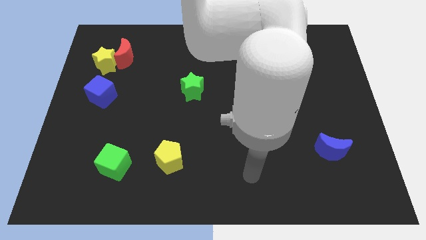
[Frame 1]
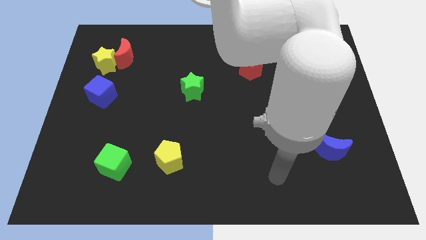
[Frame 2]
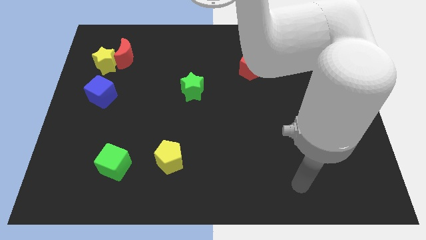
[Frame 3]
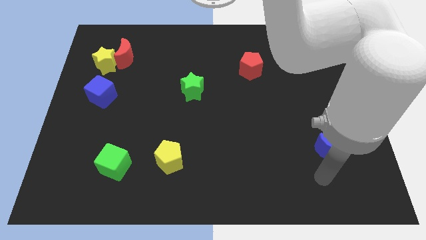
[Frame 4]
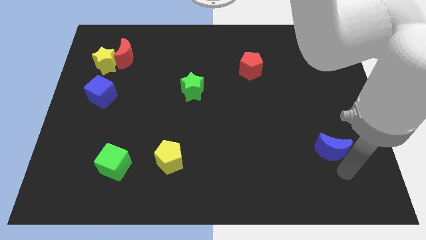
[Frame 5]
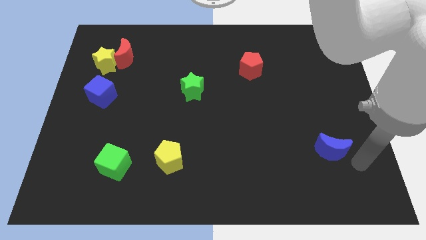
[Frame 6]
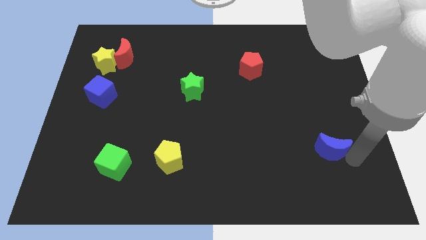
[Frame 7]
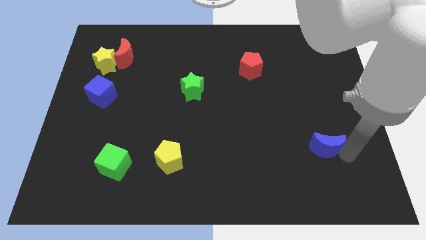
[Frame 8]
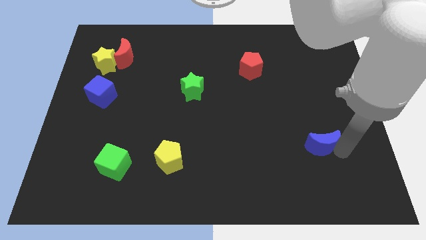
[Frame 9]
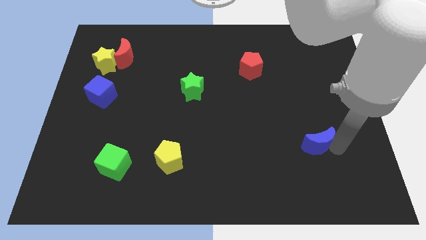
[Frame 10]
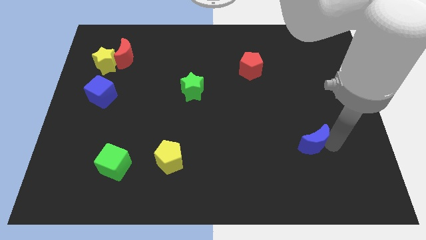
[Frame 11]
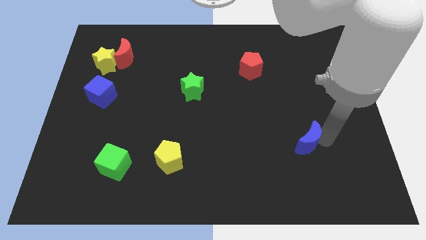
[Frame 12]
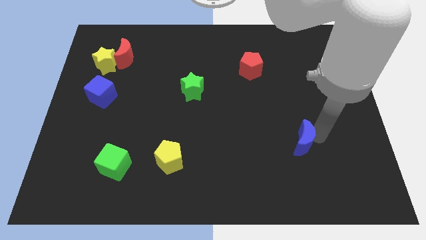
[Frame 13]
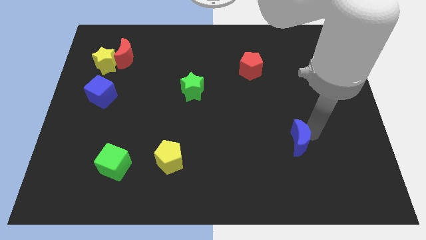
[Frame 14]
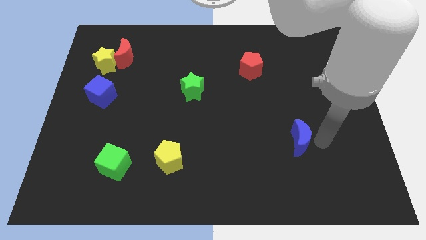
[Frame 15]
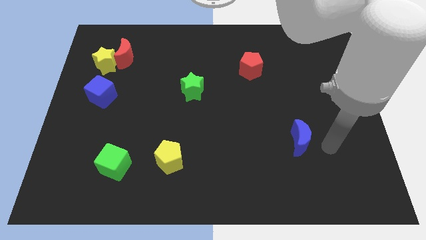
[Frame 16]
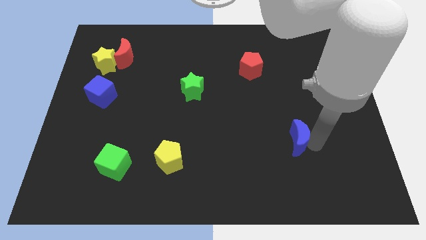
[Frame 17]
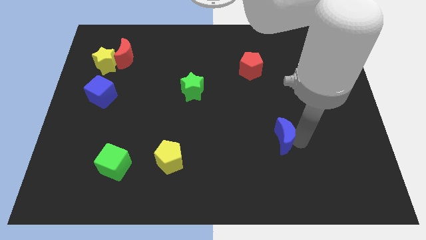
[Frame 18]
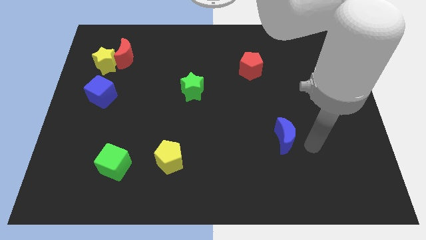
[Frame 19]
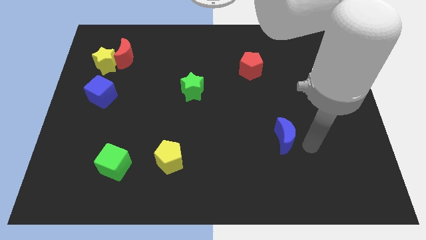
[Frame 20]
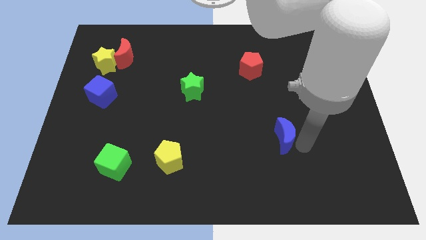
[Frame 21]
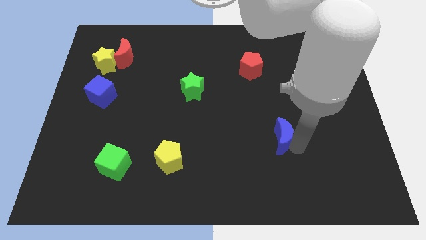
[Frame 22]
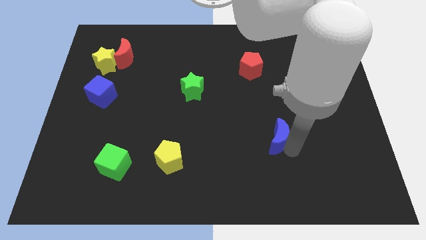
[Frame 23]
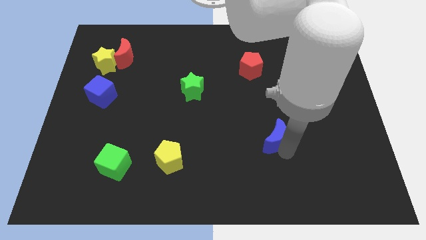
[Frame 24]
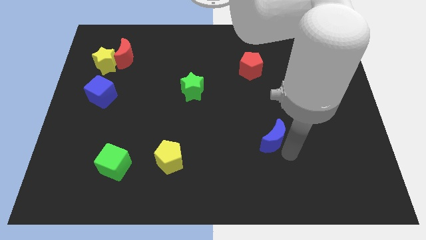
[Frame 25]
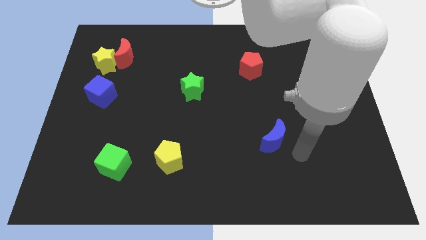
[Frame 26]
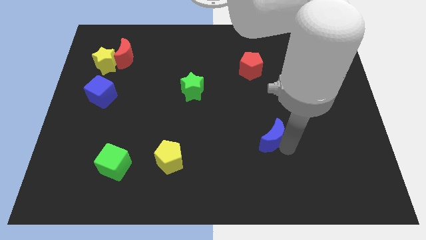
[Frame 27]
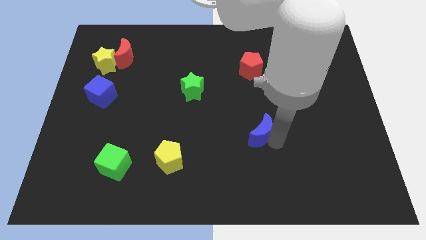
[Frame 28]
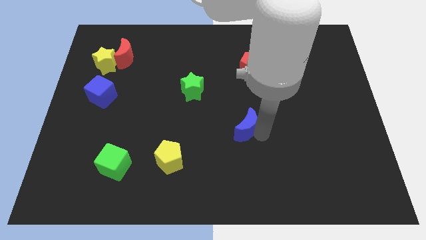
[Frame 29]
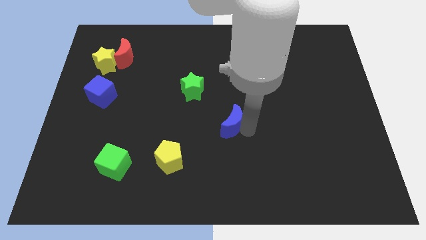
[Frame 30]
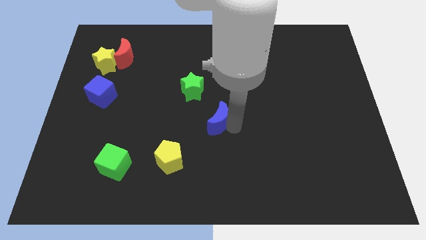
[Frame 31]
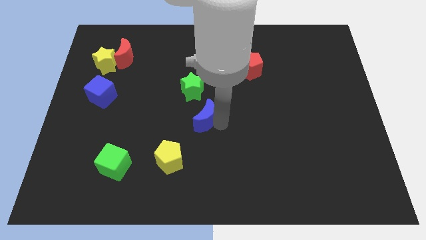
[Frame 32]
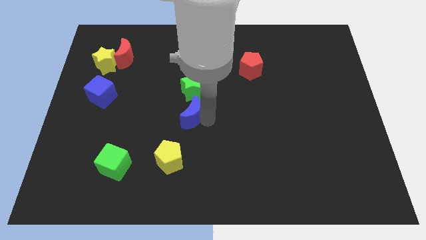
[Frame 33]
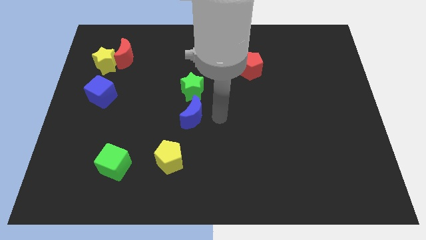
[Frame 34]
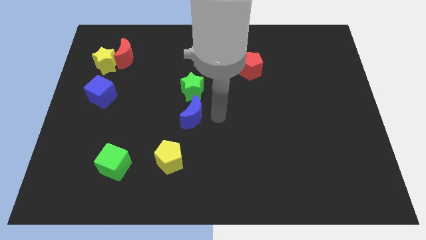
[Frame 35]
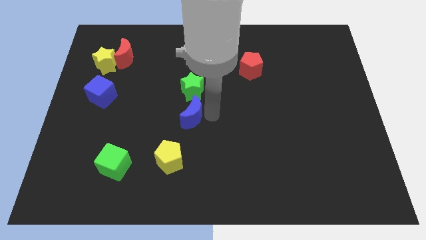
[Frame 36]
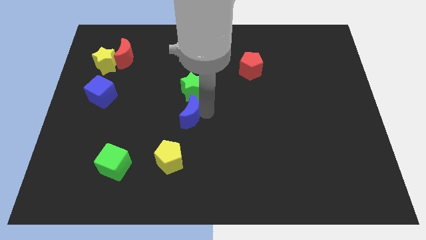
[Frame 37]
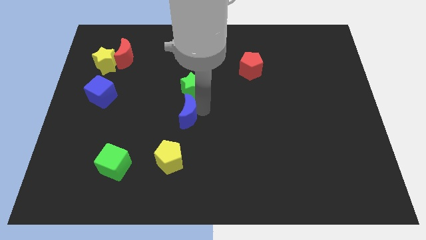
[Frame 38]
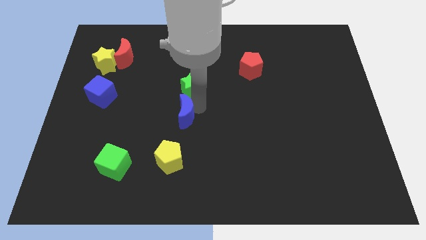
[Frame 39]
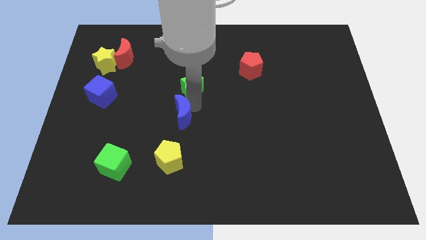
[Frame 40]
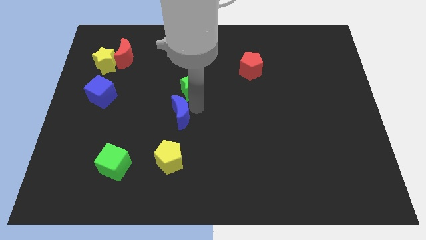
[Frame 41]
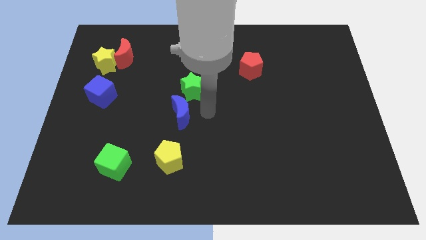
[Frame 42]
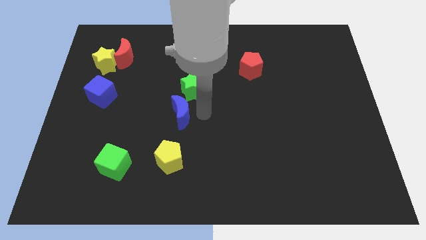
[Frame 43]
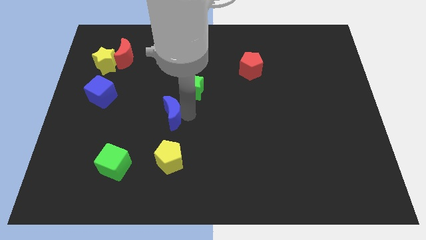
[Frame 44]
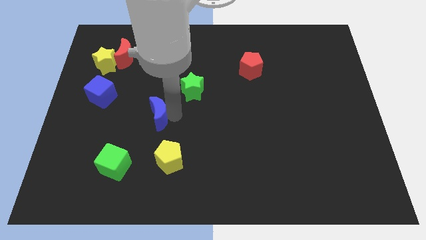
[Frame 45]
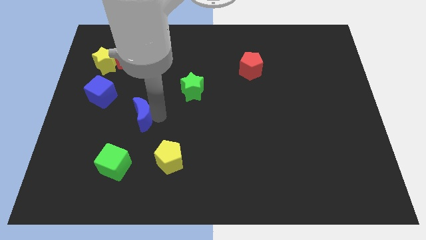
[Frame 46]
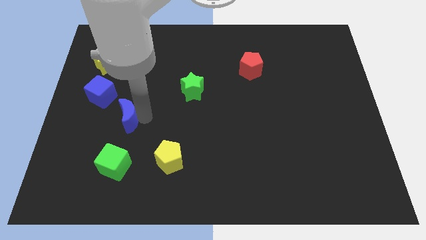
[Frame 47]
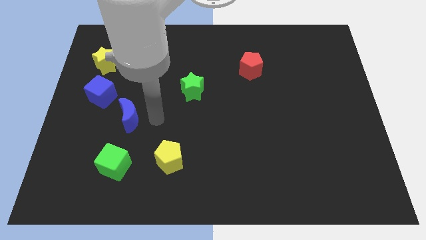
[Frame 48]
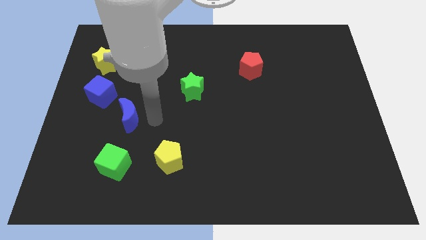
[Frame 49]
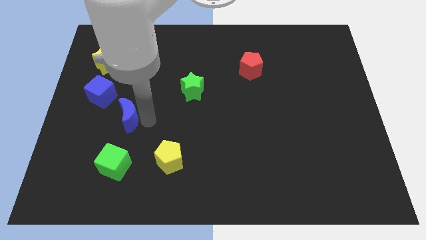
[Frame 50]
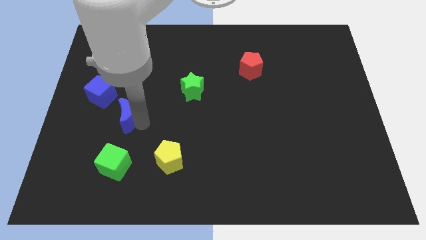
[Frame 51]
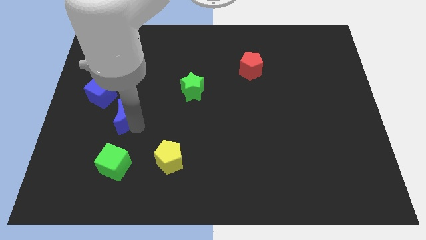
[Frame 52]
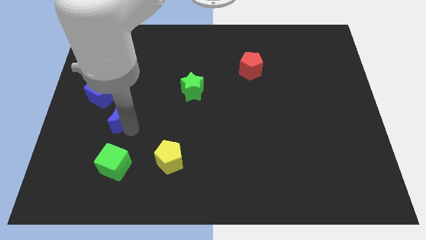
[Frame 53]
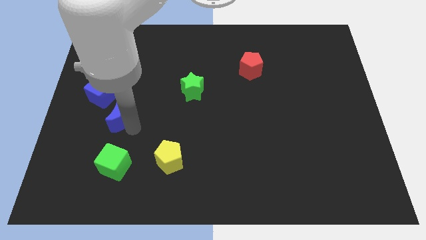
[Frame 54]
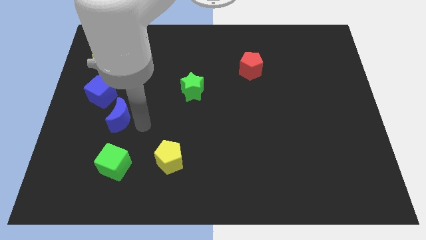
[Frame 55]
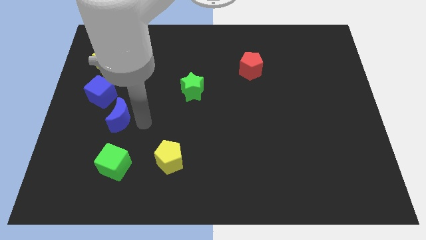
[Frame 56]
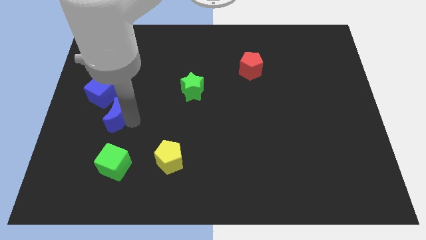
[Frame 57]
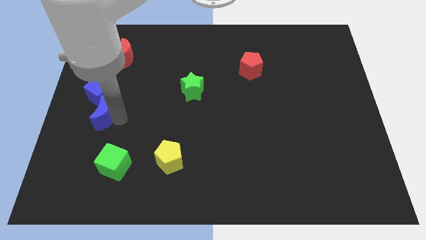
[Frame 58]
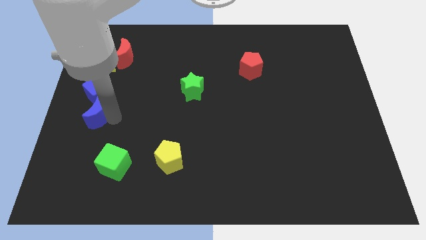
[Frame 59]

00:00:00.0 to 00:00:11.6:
slide the blue moon to the center left
